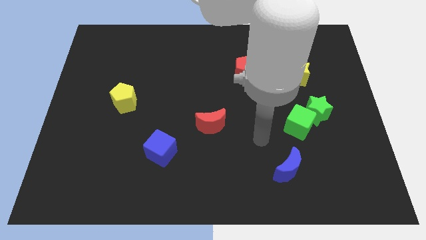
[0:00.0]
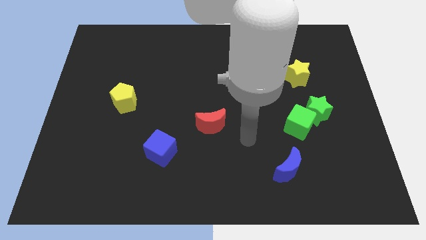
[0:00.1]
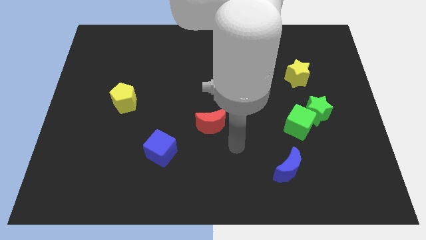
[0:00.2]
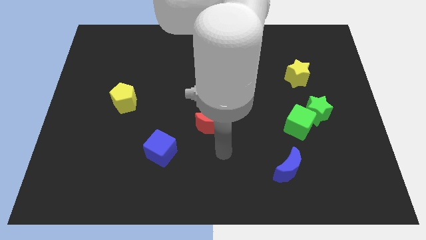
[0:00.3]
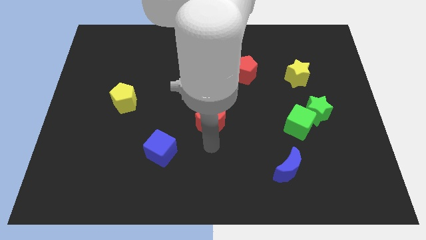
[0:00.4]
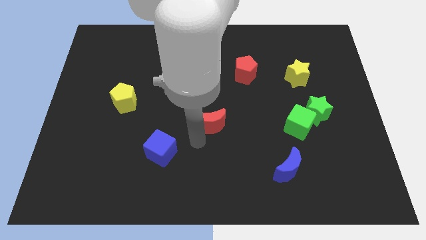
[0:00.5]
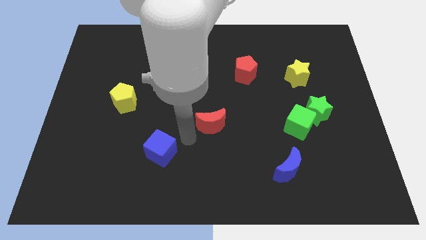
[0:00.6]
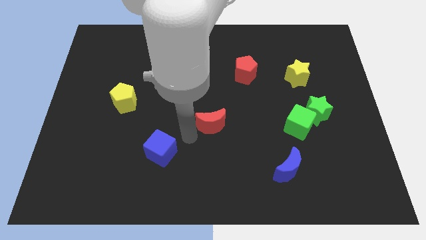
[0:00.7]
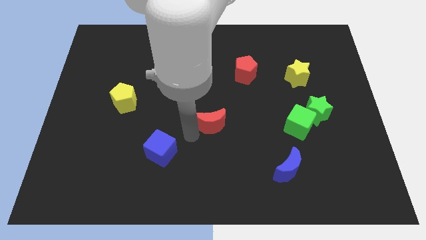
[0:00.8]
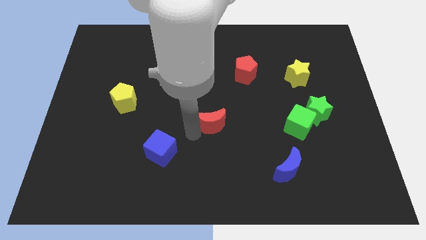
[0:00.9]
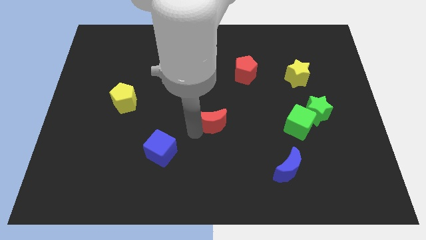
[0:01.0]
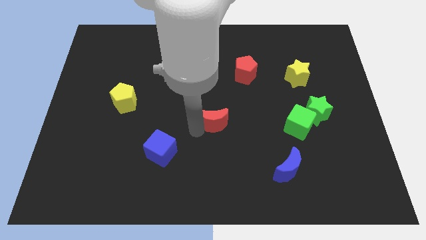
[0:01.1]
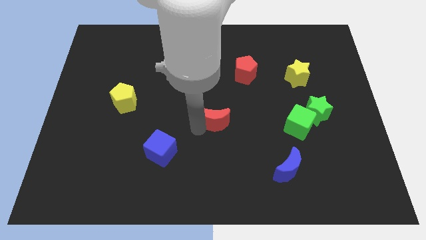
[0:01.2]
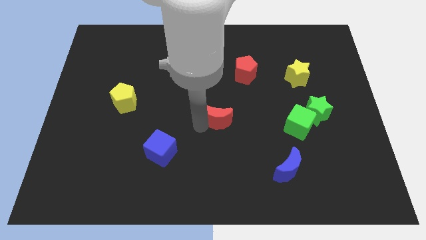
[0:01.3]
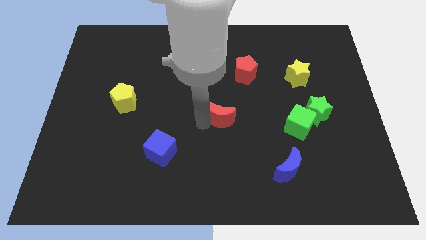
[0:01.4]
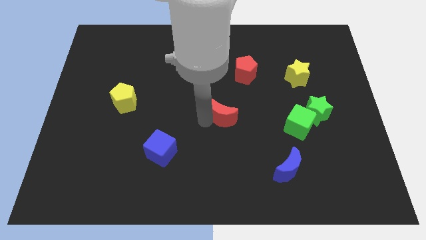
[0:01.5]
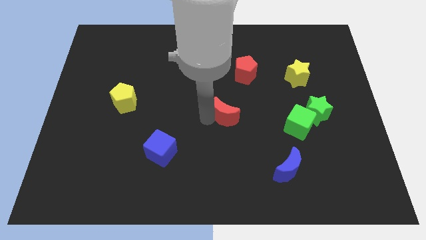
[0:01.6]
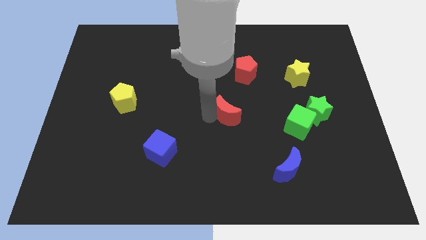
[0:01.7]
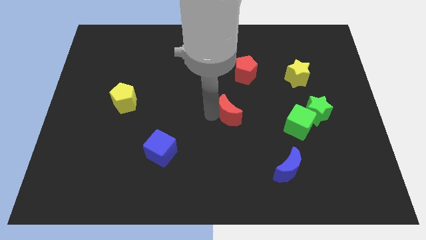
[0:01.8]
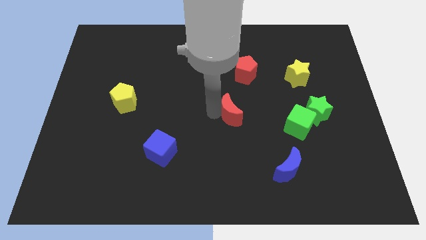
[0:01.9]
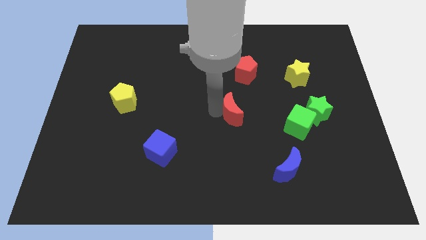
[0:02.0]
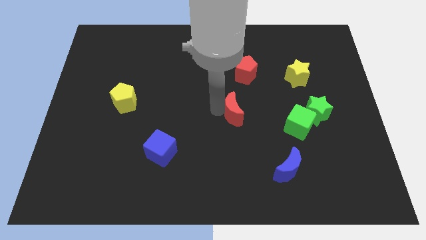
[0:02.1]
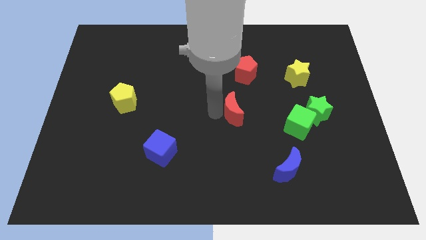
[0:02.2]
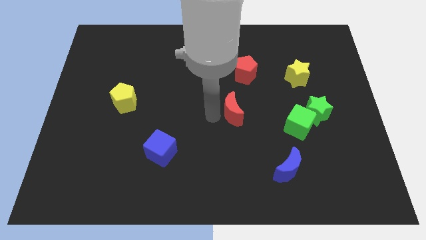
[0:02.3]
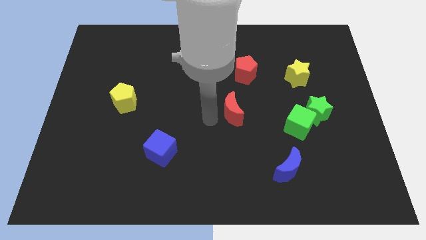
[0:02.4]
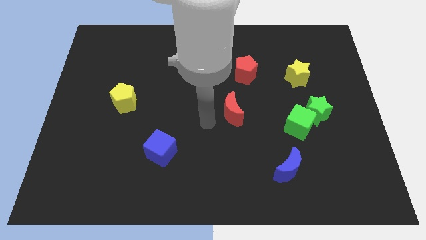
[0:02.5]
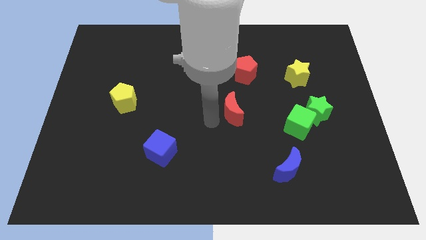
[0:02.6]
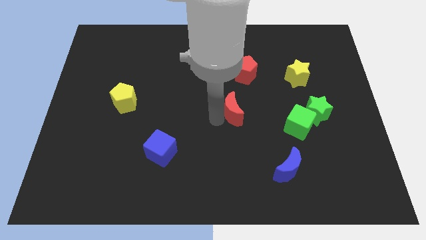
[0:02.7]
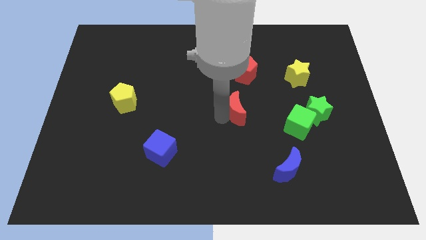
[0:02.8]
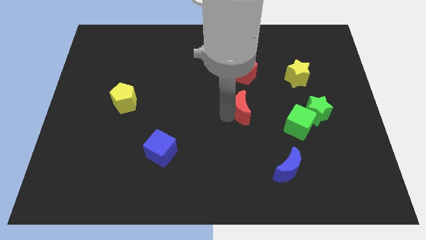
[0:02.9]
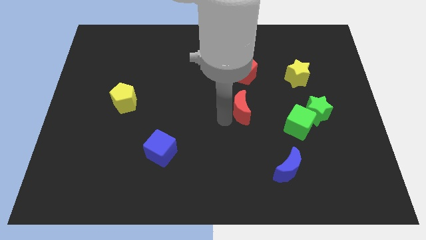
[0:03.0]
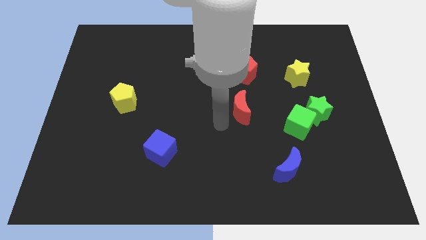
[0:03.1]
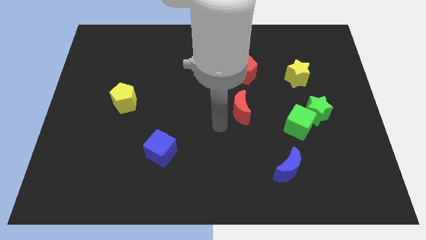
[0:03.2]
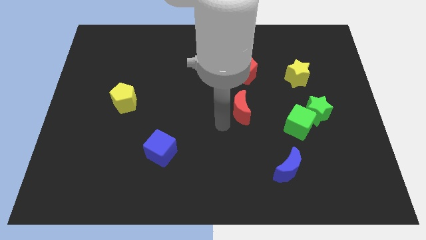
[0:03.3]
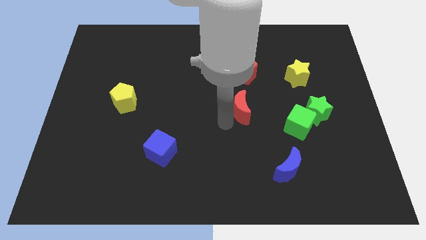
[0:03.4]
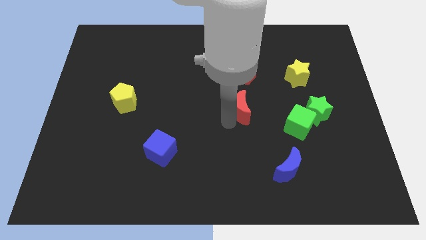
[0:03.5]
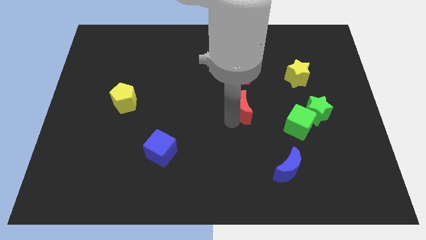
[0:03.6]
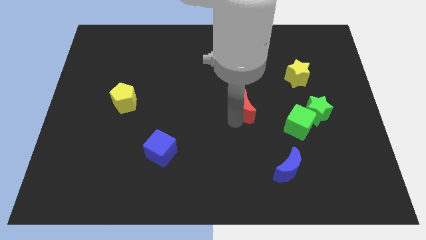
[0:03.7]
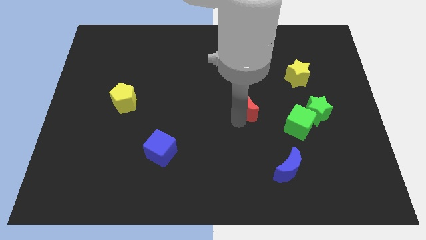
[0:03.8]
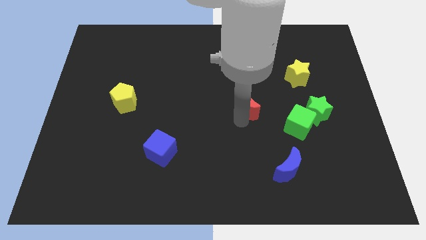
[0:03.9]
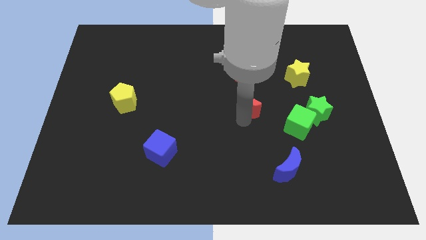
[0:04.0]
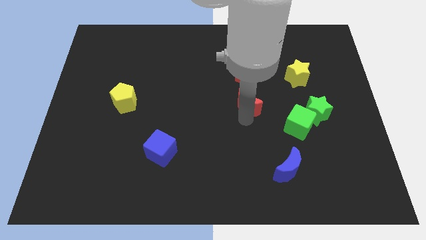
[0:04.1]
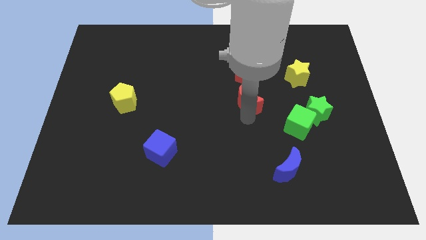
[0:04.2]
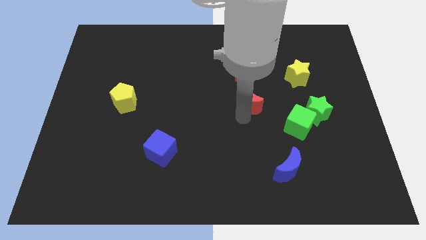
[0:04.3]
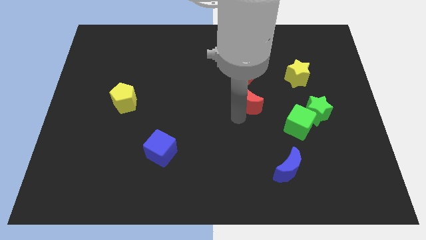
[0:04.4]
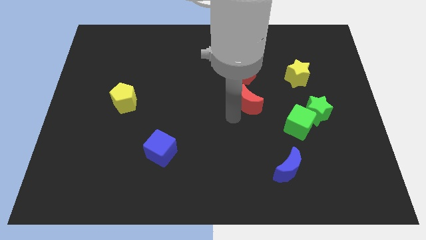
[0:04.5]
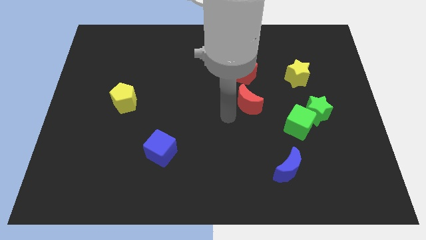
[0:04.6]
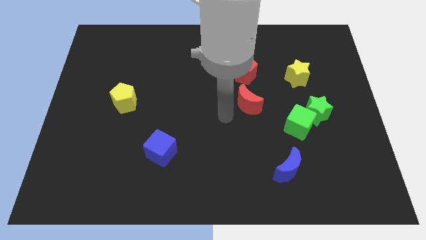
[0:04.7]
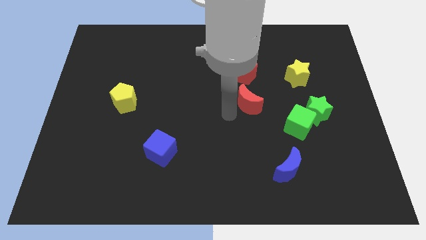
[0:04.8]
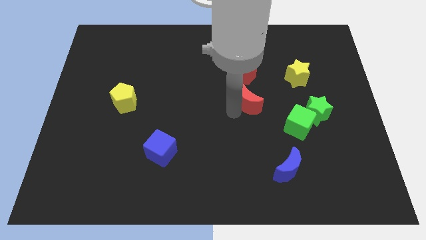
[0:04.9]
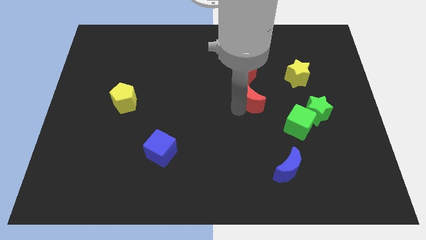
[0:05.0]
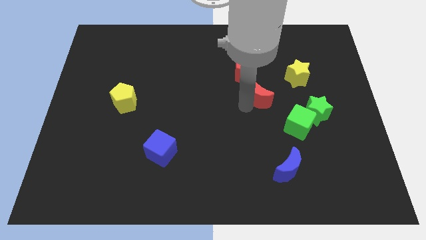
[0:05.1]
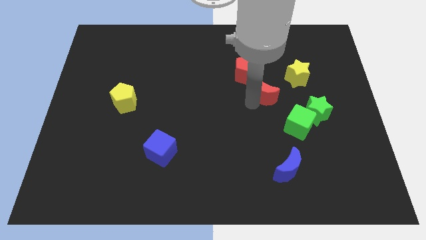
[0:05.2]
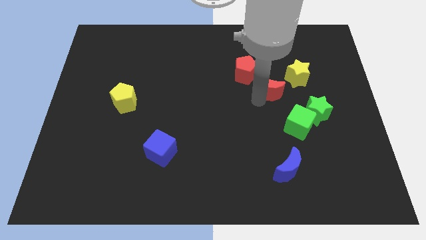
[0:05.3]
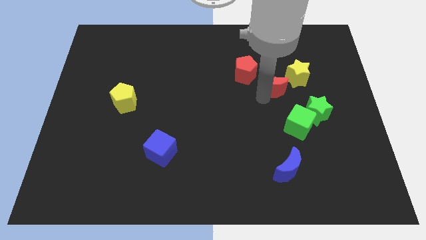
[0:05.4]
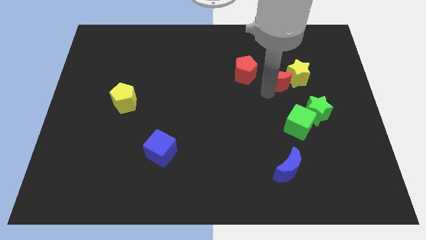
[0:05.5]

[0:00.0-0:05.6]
push the red moon towards the yellow star
